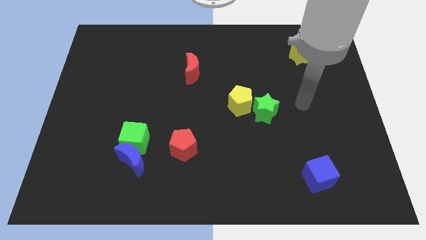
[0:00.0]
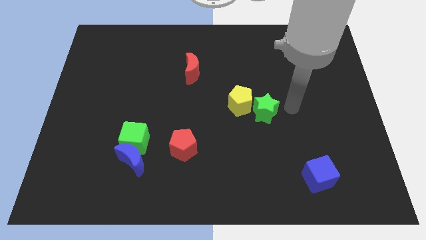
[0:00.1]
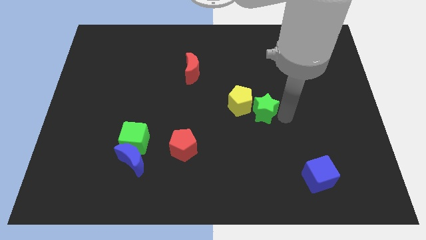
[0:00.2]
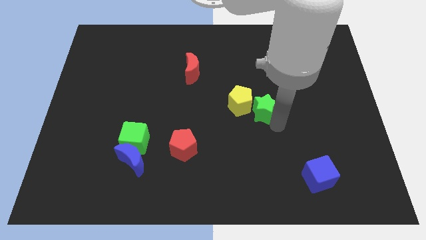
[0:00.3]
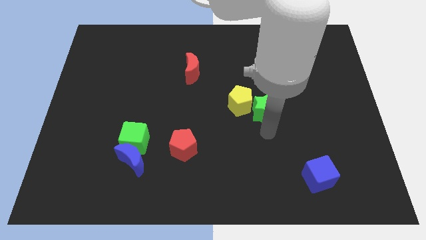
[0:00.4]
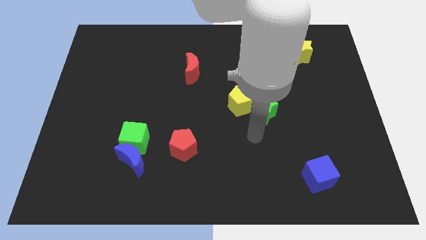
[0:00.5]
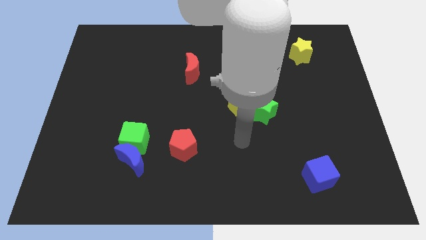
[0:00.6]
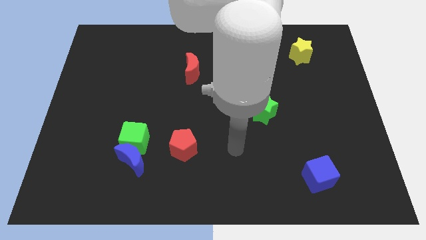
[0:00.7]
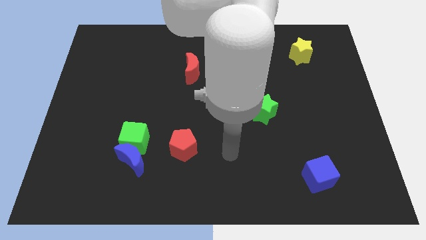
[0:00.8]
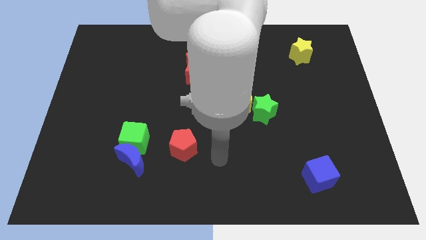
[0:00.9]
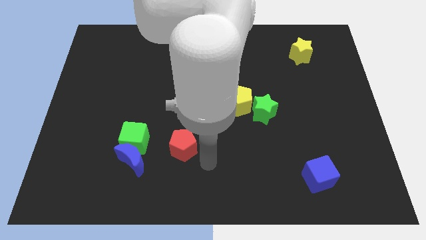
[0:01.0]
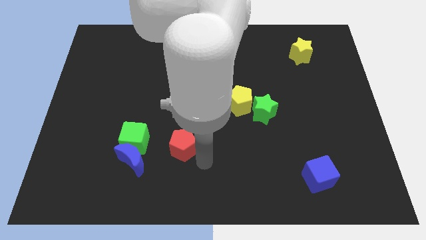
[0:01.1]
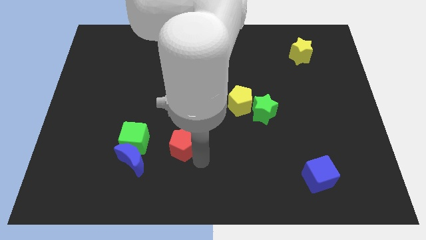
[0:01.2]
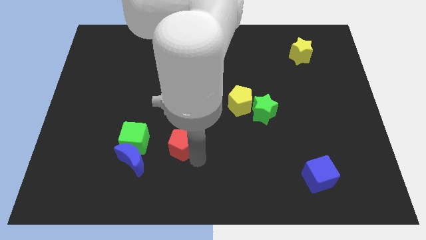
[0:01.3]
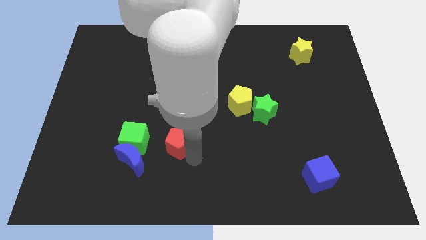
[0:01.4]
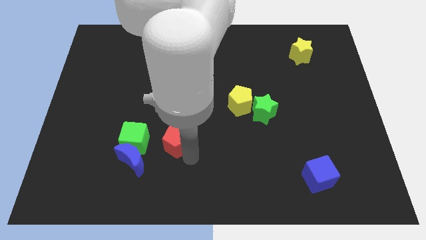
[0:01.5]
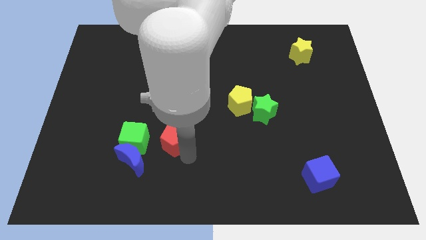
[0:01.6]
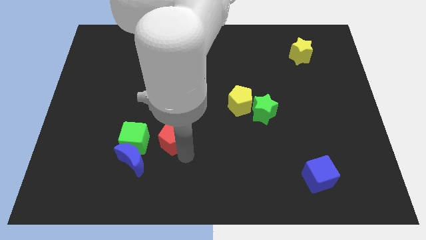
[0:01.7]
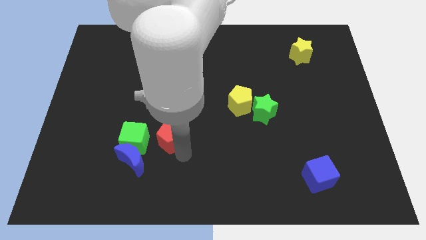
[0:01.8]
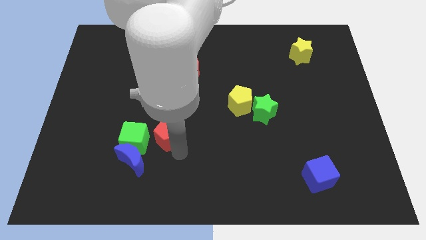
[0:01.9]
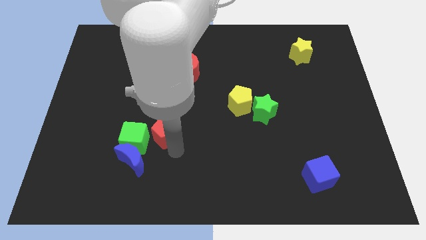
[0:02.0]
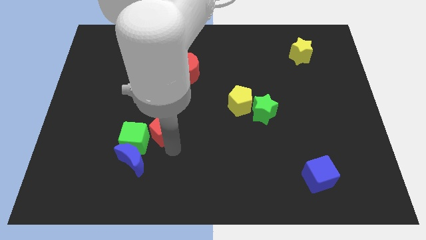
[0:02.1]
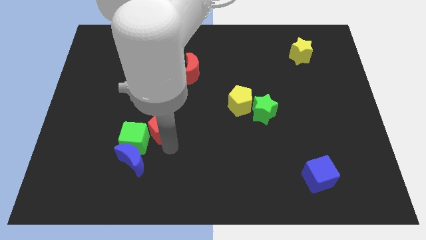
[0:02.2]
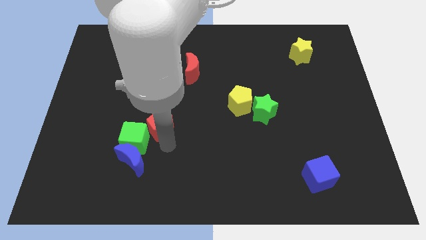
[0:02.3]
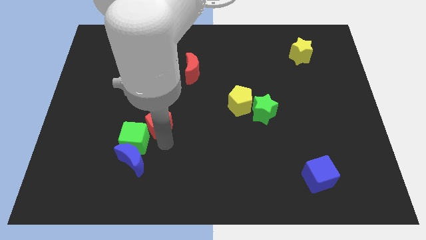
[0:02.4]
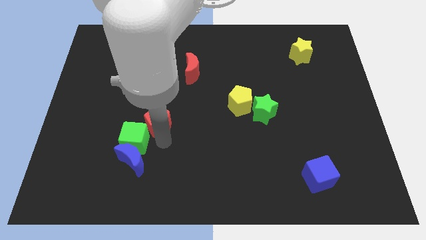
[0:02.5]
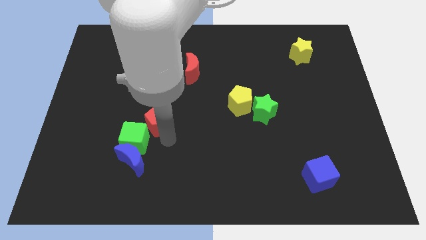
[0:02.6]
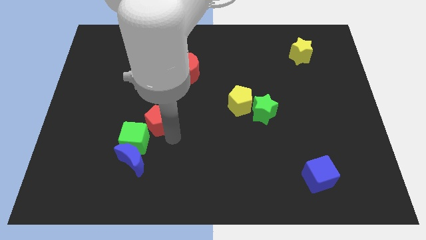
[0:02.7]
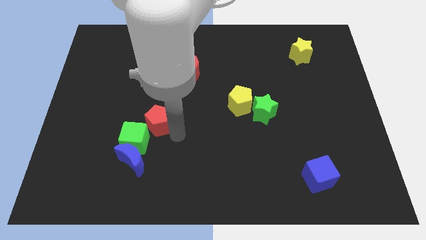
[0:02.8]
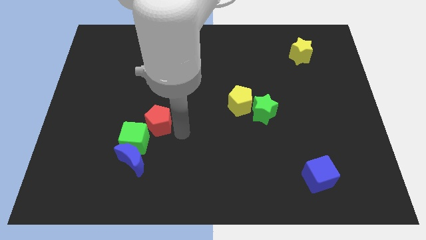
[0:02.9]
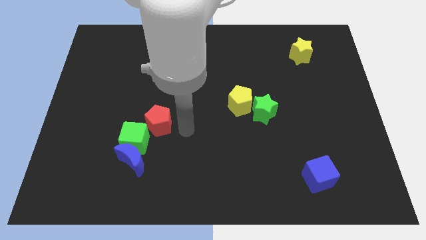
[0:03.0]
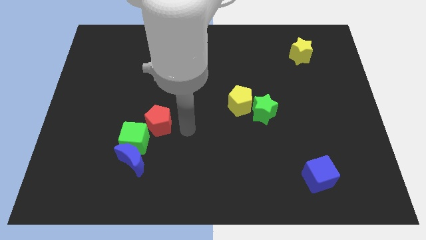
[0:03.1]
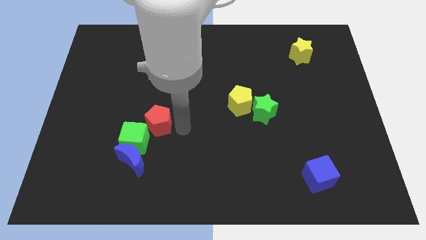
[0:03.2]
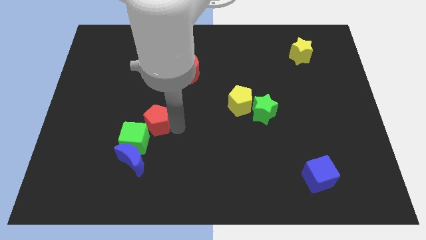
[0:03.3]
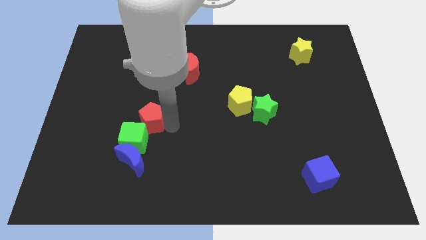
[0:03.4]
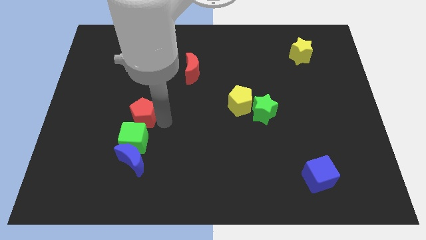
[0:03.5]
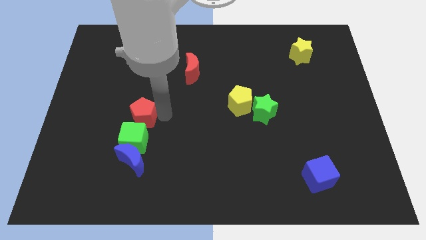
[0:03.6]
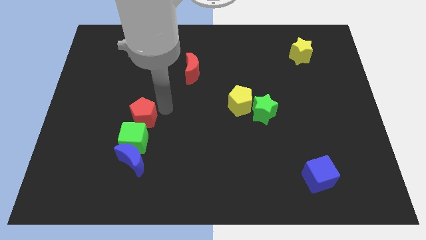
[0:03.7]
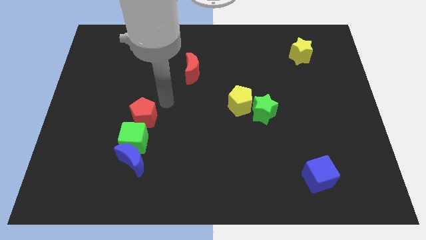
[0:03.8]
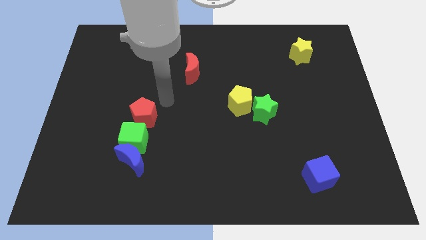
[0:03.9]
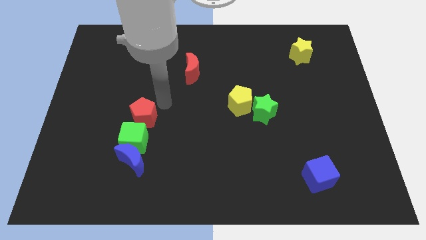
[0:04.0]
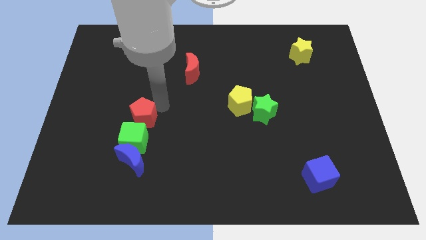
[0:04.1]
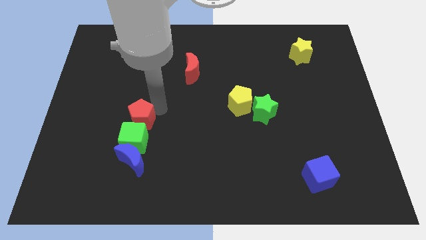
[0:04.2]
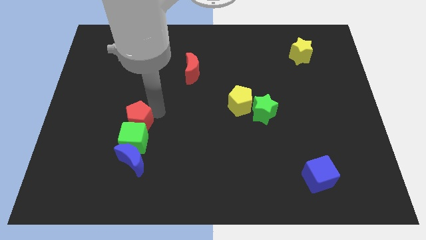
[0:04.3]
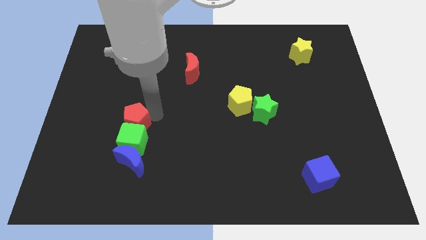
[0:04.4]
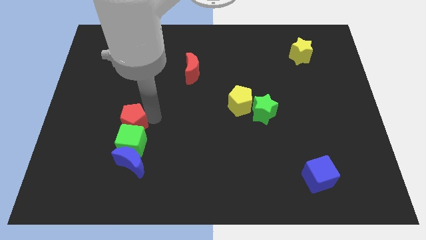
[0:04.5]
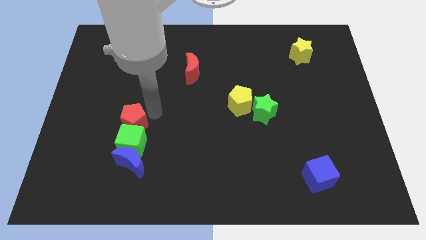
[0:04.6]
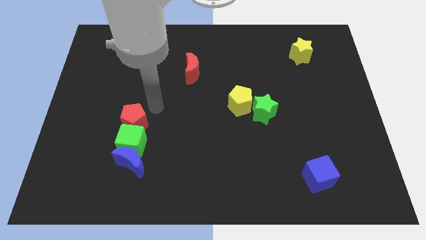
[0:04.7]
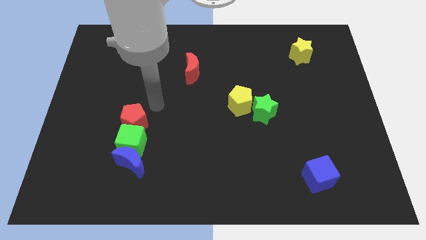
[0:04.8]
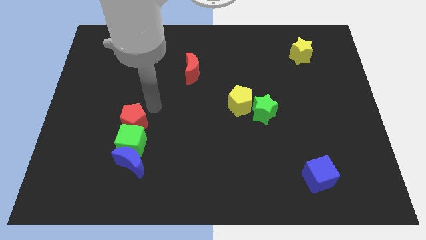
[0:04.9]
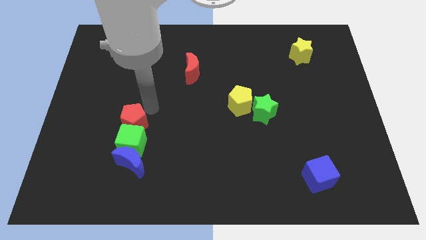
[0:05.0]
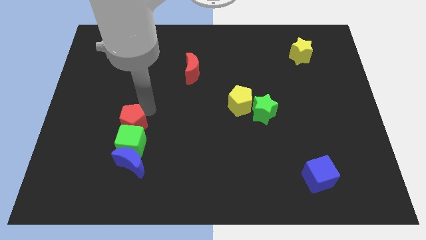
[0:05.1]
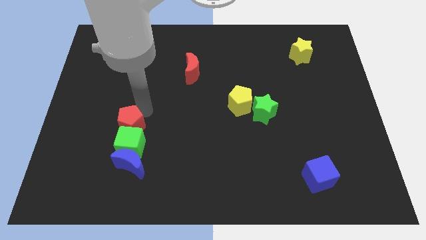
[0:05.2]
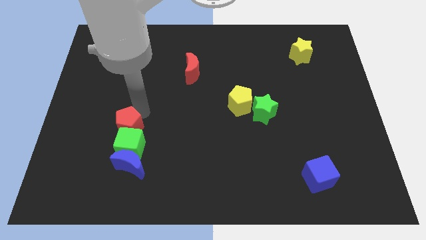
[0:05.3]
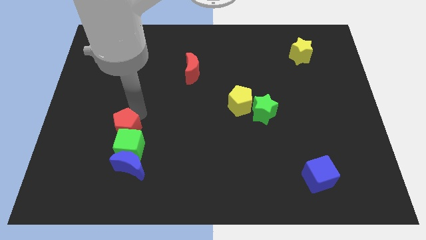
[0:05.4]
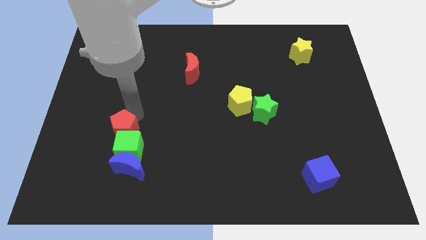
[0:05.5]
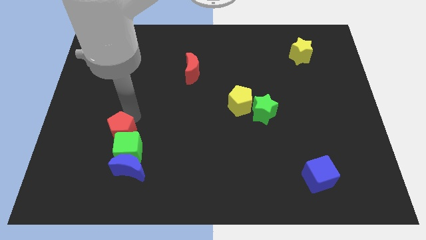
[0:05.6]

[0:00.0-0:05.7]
slide the red pentagon to the top left of the blue moon
